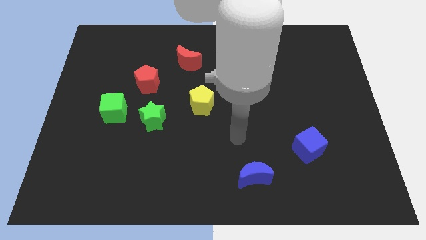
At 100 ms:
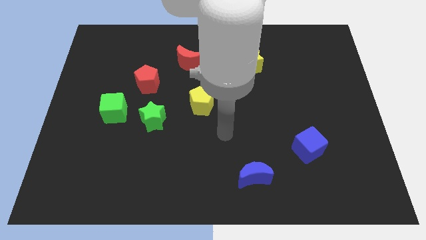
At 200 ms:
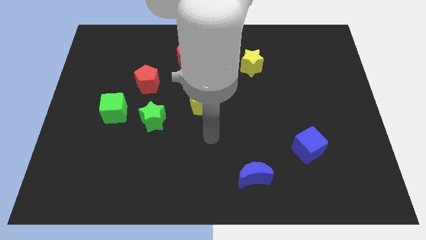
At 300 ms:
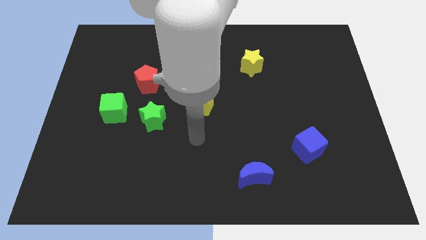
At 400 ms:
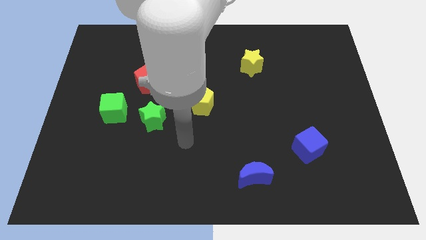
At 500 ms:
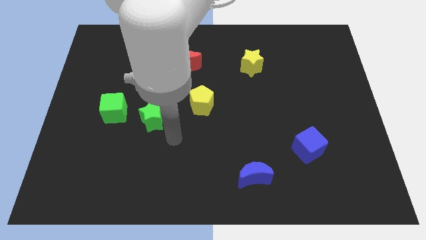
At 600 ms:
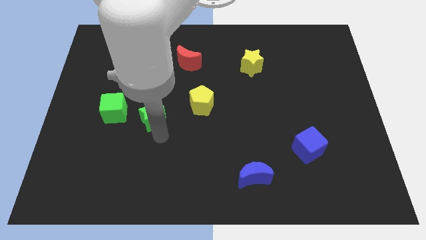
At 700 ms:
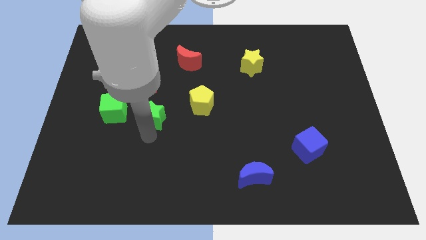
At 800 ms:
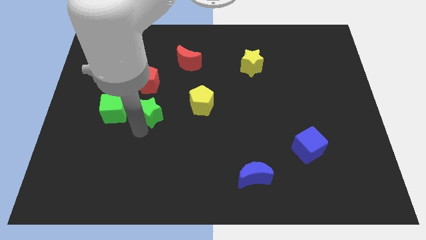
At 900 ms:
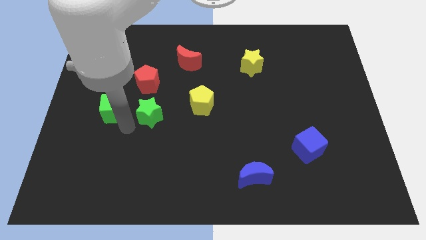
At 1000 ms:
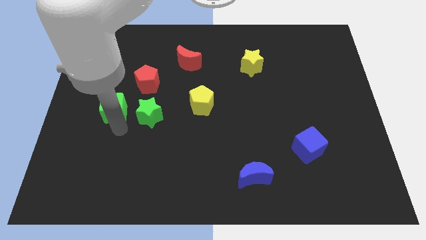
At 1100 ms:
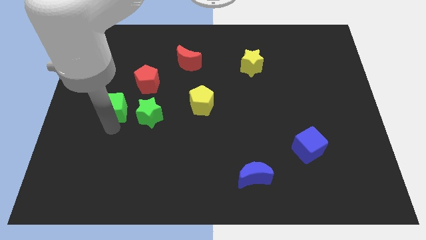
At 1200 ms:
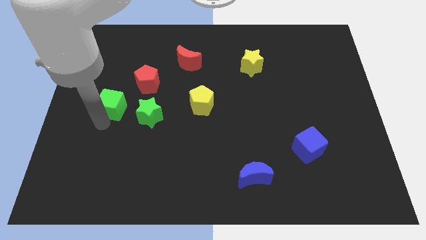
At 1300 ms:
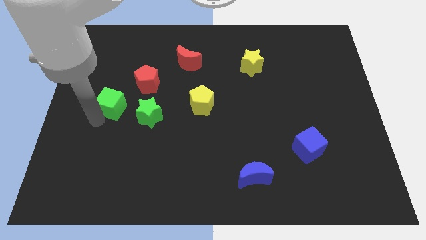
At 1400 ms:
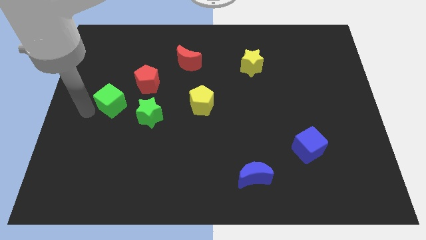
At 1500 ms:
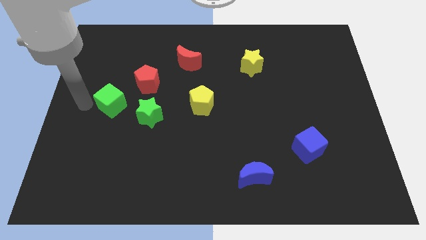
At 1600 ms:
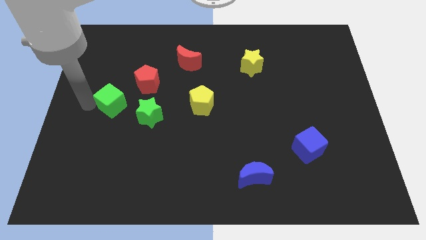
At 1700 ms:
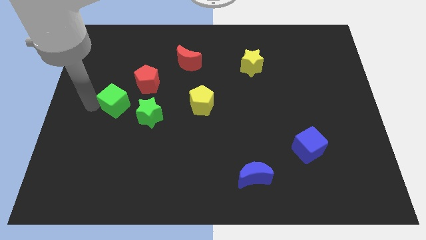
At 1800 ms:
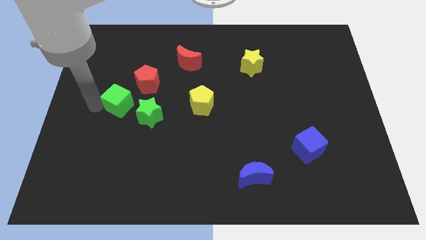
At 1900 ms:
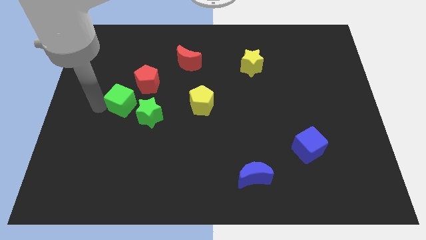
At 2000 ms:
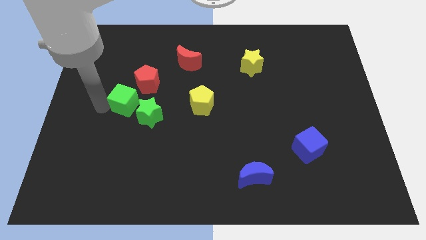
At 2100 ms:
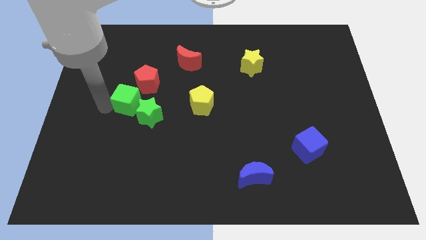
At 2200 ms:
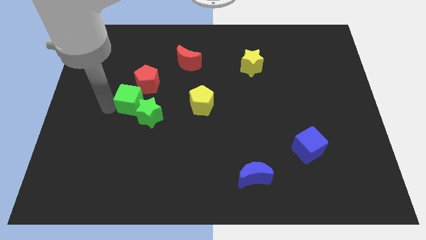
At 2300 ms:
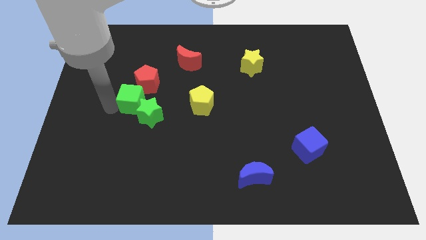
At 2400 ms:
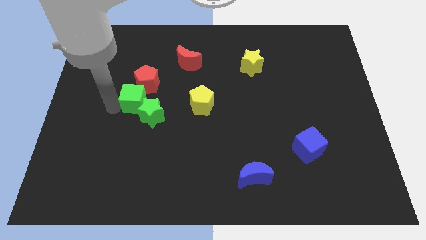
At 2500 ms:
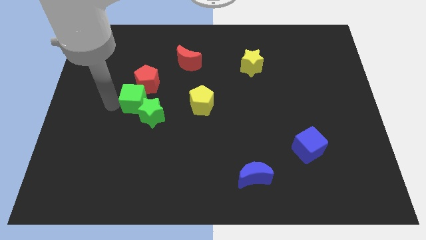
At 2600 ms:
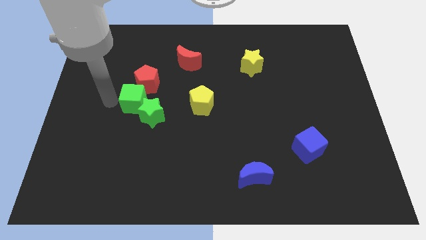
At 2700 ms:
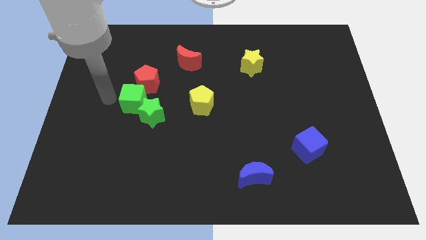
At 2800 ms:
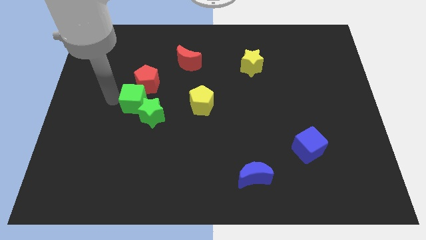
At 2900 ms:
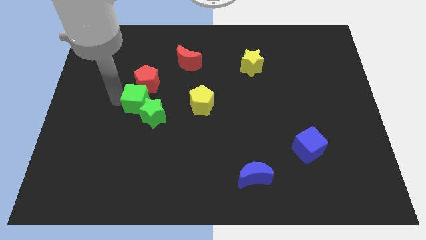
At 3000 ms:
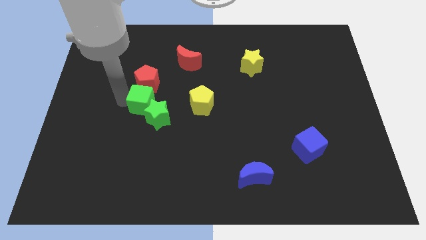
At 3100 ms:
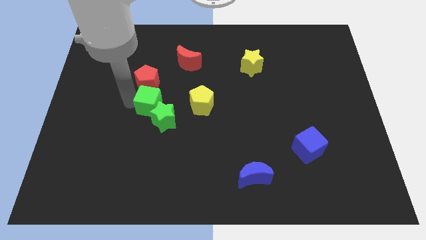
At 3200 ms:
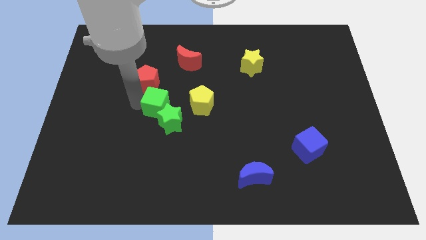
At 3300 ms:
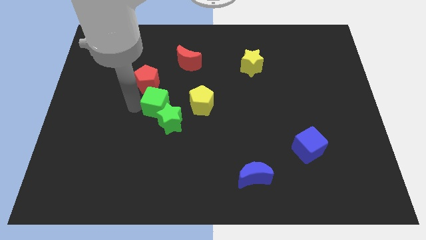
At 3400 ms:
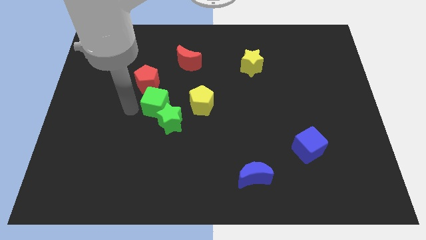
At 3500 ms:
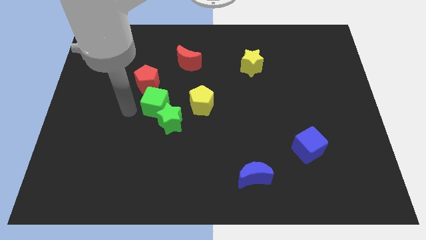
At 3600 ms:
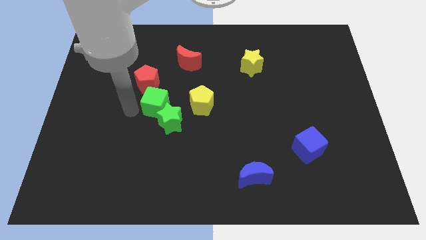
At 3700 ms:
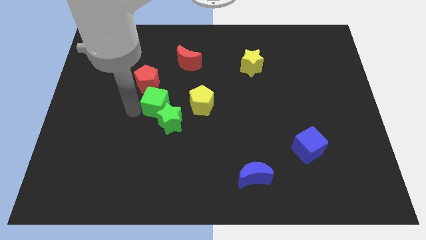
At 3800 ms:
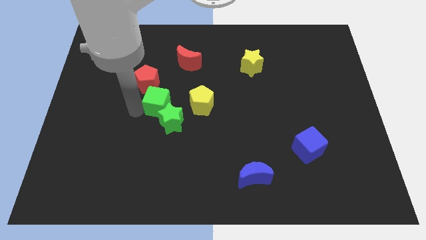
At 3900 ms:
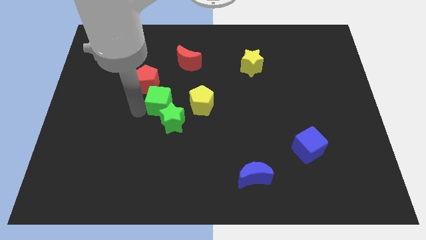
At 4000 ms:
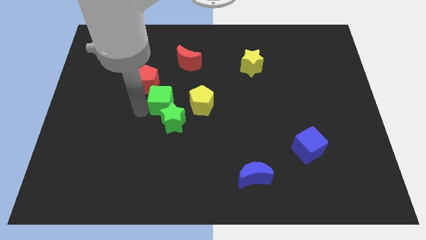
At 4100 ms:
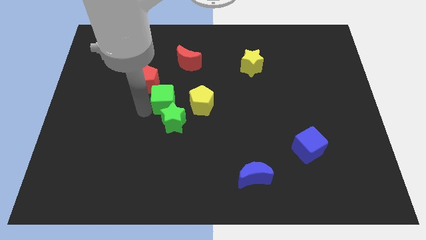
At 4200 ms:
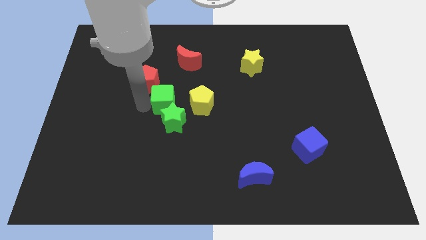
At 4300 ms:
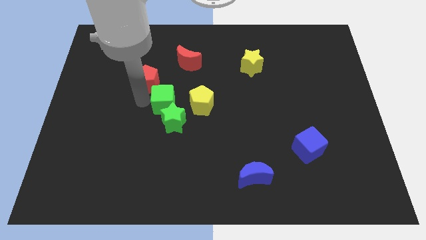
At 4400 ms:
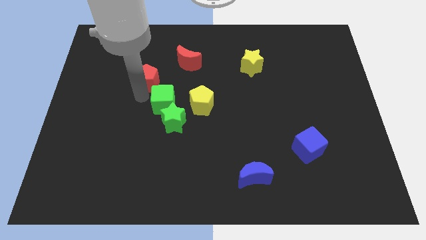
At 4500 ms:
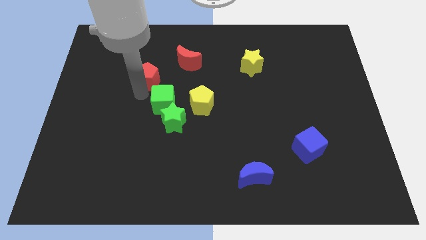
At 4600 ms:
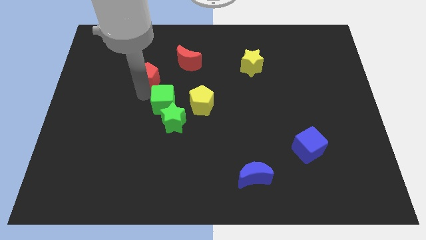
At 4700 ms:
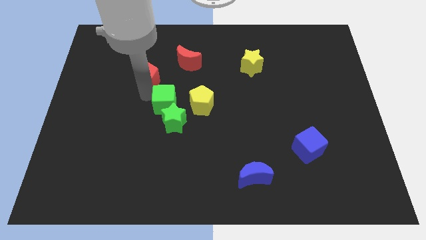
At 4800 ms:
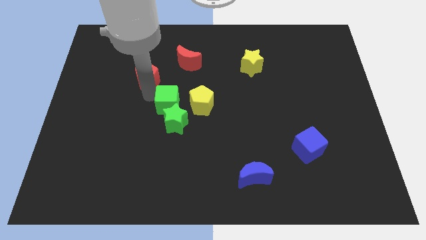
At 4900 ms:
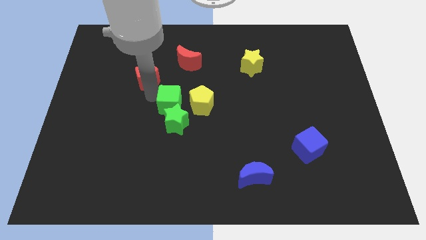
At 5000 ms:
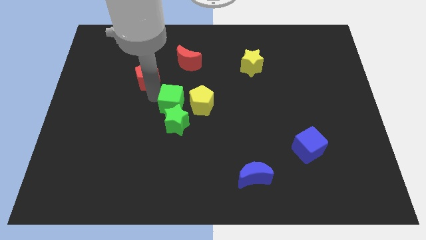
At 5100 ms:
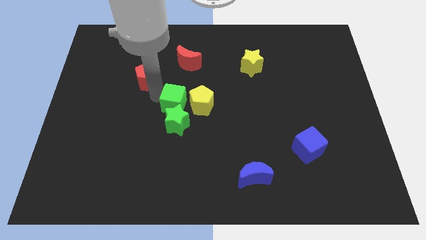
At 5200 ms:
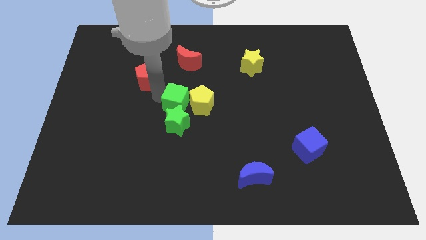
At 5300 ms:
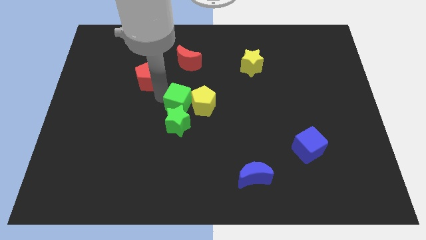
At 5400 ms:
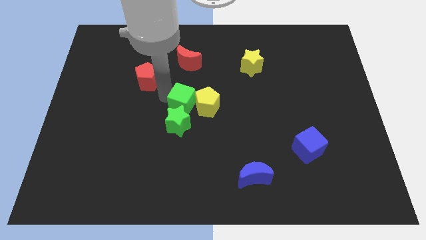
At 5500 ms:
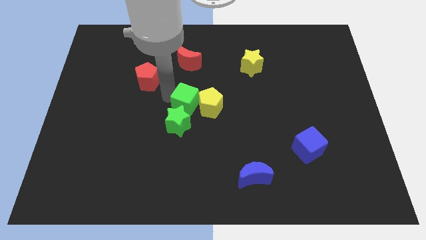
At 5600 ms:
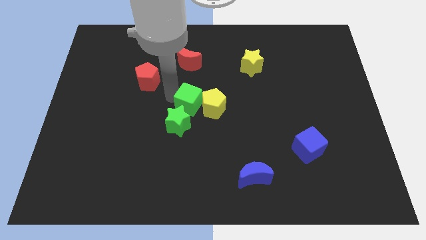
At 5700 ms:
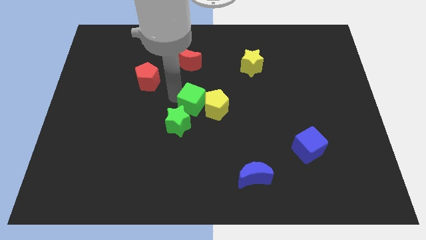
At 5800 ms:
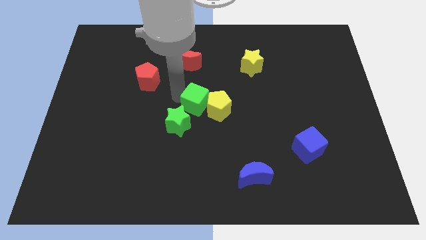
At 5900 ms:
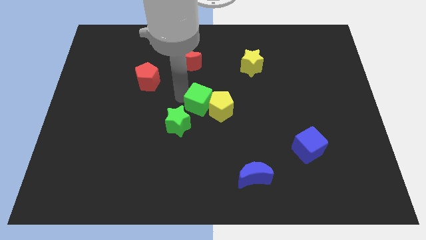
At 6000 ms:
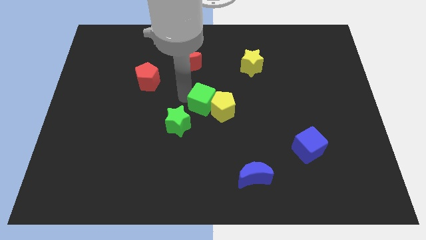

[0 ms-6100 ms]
push the green cube right

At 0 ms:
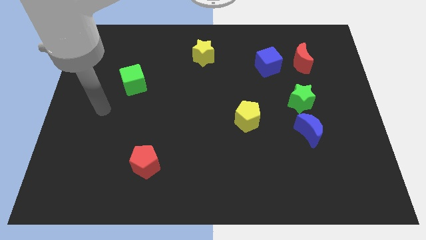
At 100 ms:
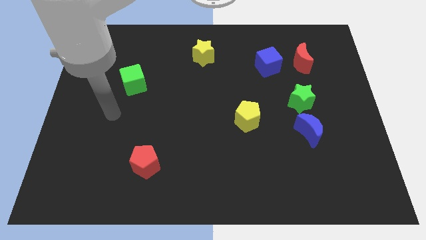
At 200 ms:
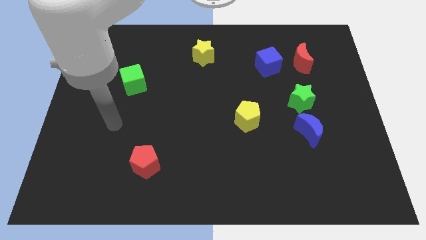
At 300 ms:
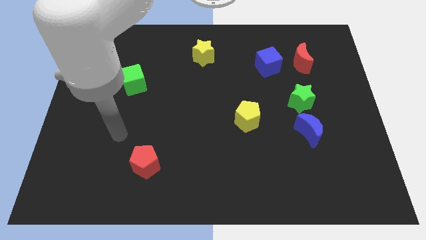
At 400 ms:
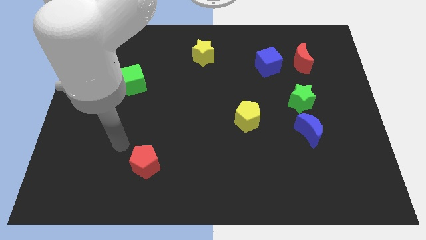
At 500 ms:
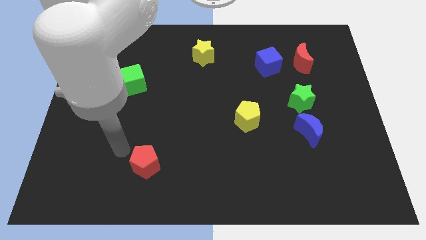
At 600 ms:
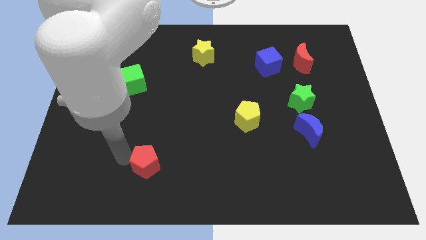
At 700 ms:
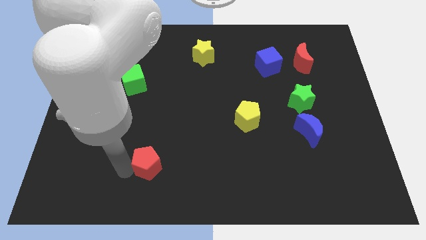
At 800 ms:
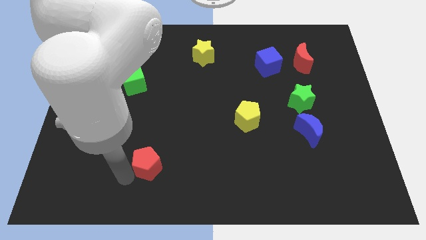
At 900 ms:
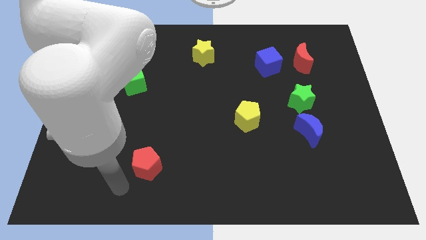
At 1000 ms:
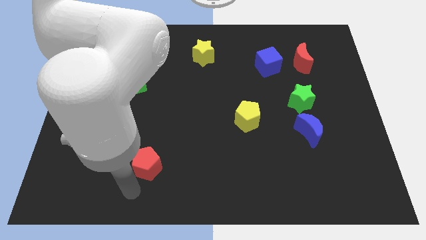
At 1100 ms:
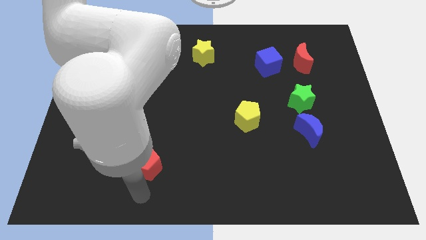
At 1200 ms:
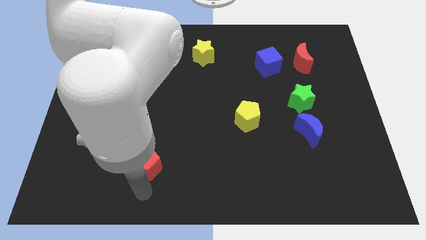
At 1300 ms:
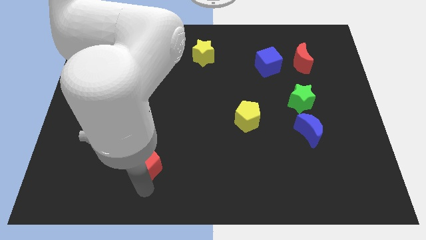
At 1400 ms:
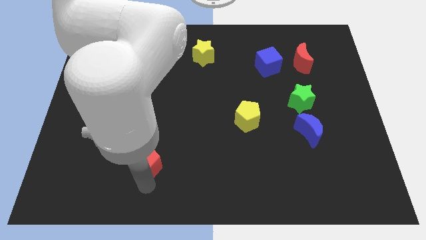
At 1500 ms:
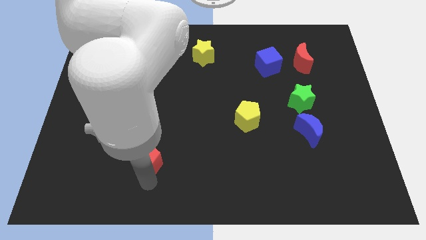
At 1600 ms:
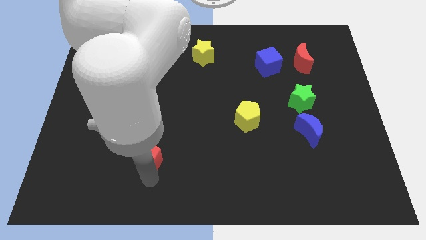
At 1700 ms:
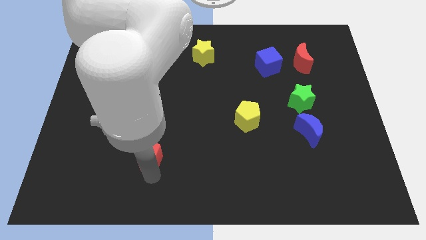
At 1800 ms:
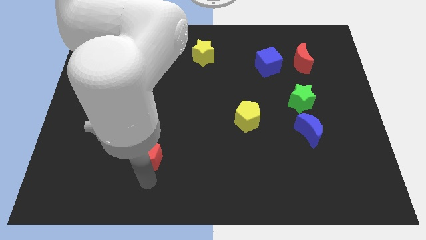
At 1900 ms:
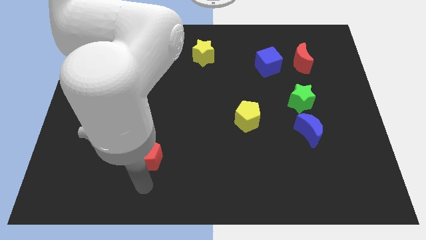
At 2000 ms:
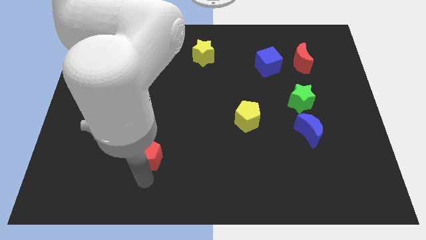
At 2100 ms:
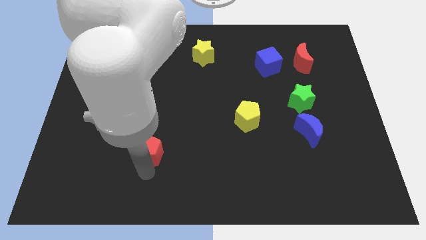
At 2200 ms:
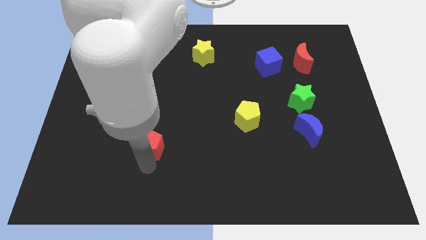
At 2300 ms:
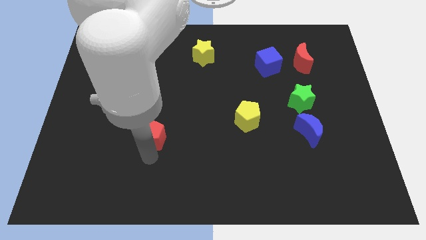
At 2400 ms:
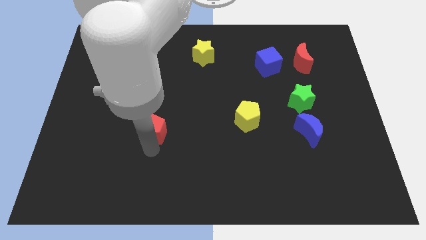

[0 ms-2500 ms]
push the red pentagon up somewhat
